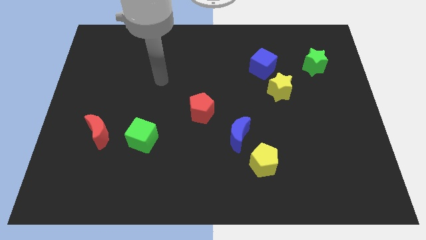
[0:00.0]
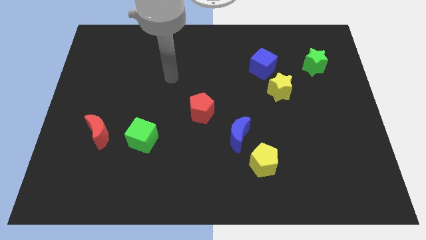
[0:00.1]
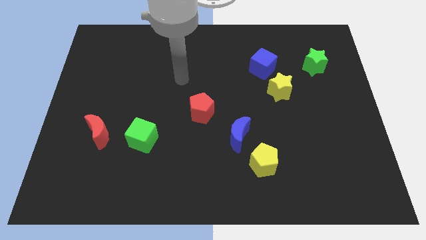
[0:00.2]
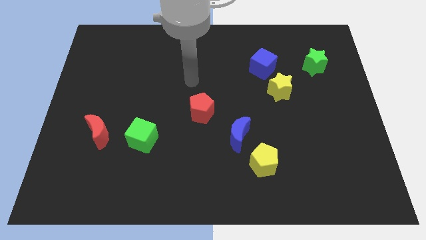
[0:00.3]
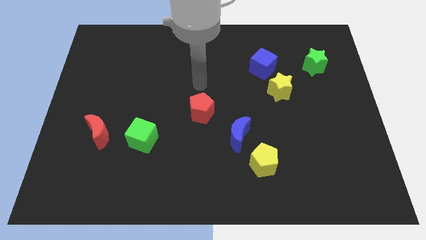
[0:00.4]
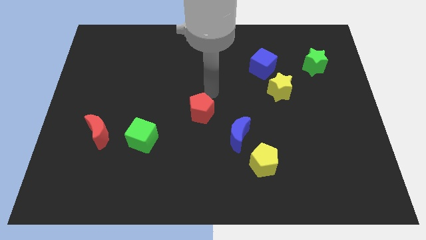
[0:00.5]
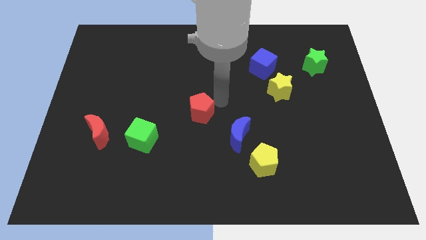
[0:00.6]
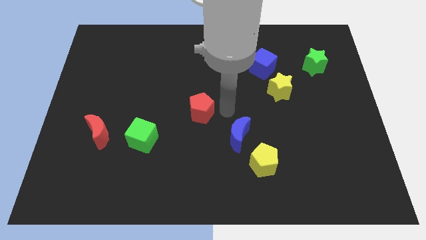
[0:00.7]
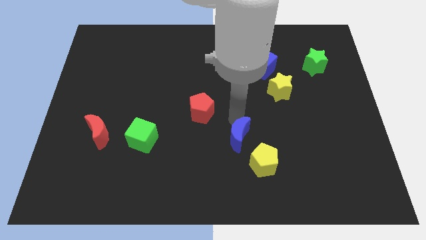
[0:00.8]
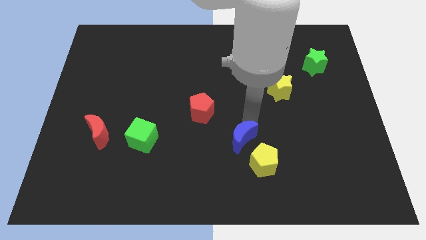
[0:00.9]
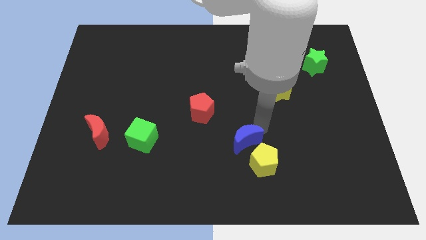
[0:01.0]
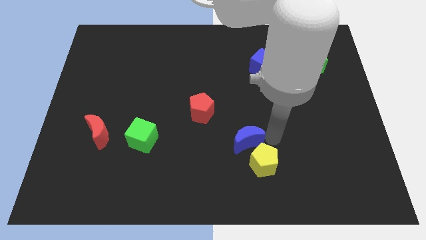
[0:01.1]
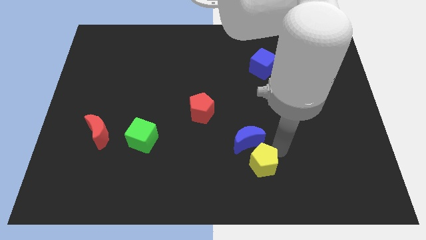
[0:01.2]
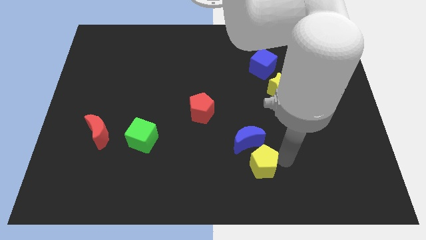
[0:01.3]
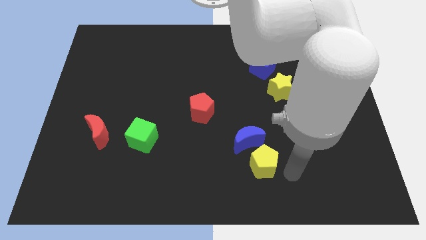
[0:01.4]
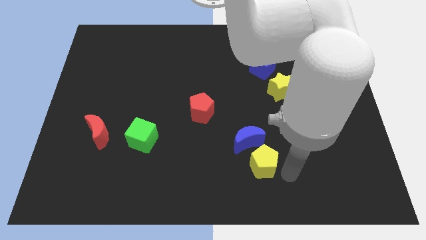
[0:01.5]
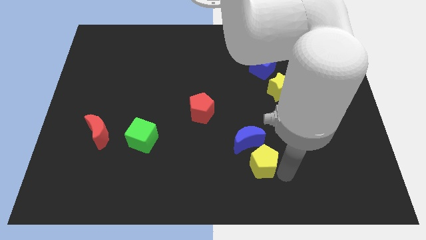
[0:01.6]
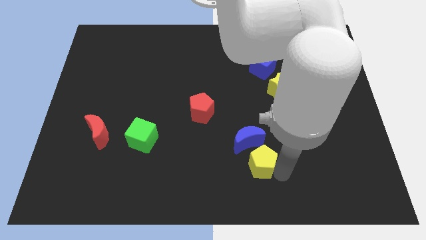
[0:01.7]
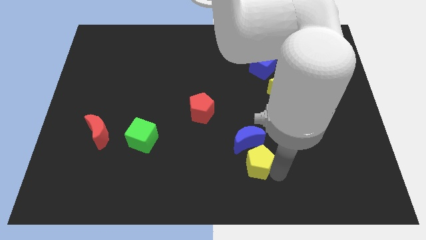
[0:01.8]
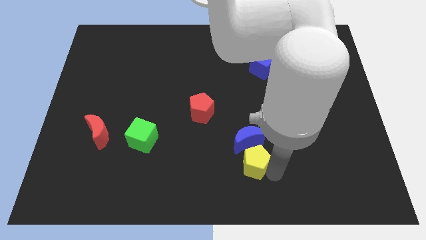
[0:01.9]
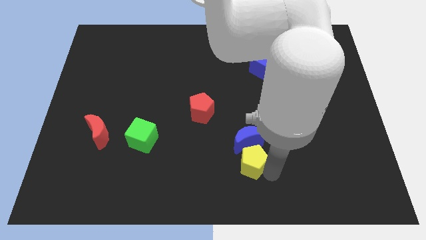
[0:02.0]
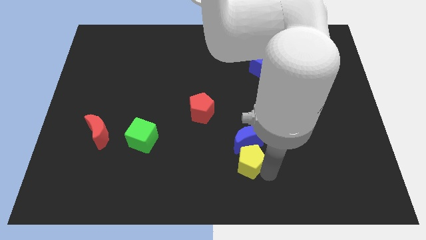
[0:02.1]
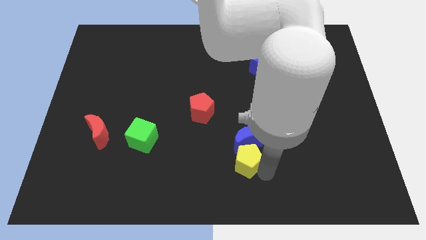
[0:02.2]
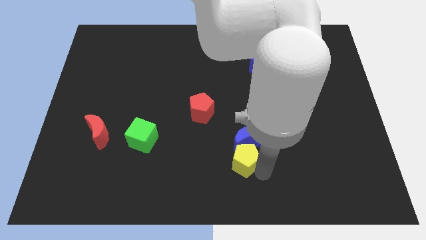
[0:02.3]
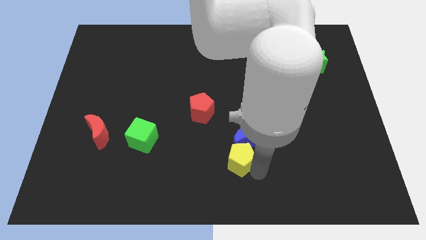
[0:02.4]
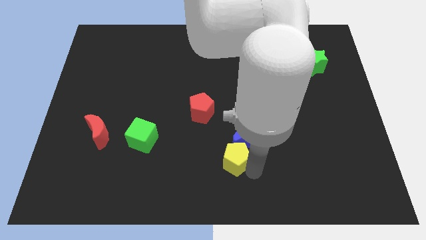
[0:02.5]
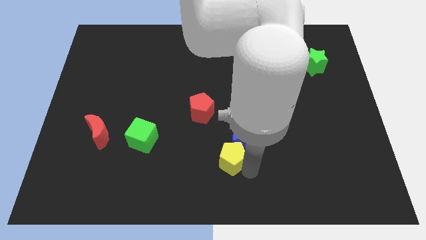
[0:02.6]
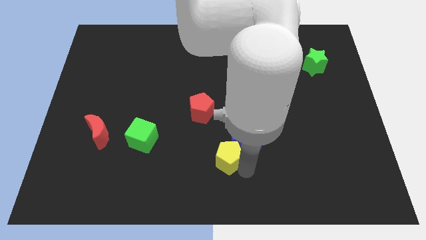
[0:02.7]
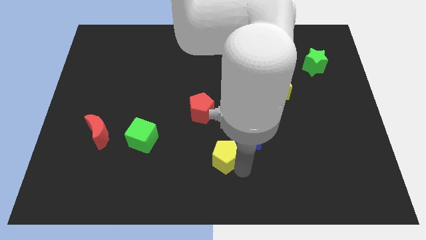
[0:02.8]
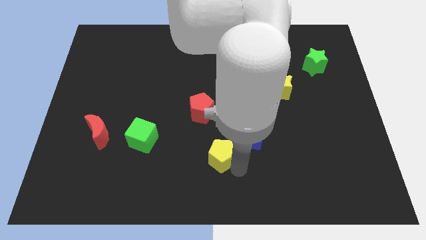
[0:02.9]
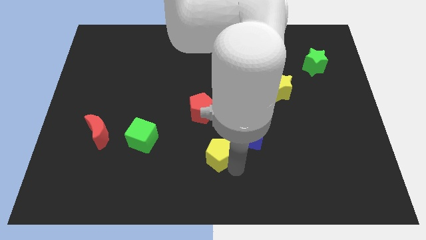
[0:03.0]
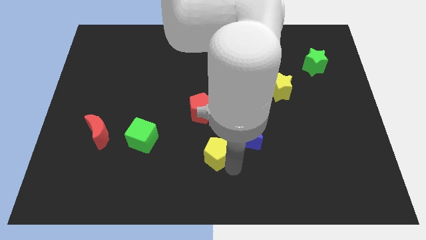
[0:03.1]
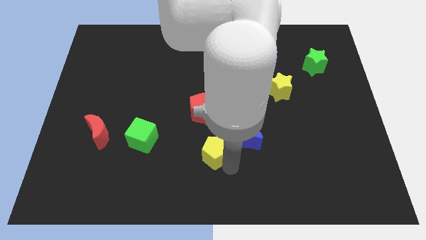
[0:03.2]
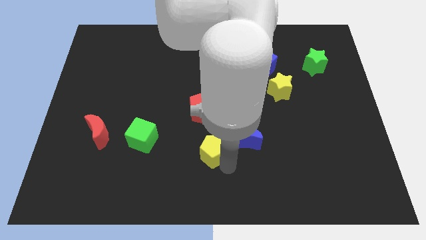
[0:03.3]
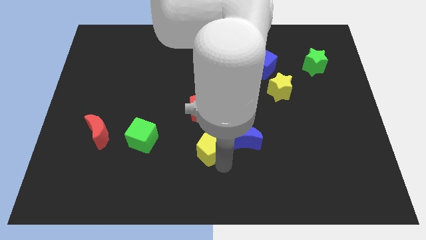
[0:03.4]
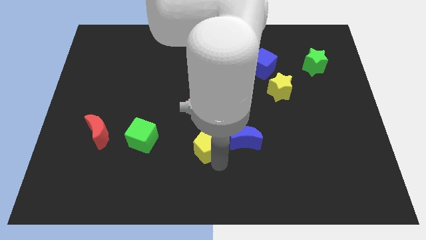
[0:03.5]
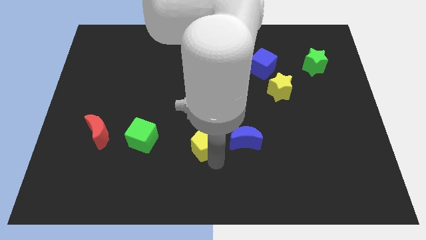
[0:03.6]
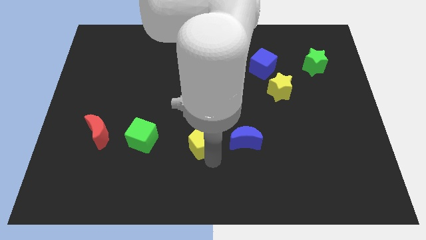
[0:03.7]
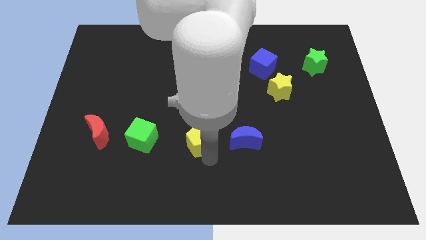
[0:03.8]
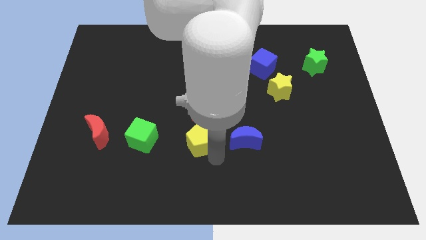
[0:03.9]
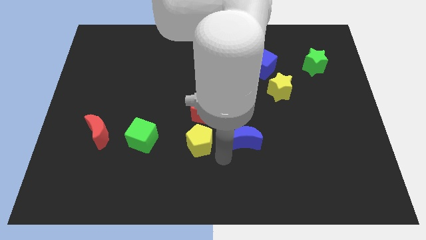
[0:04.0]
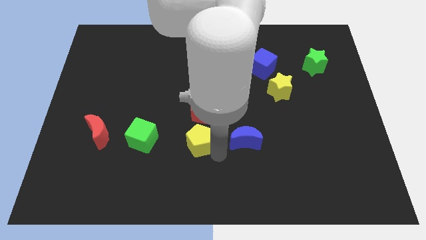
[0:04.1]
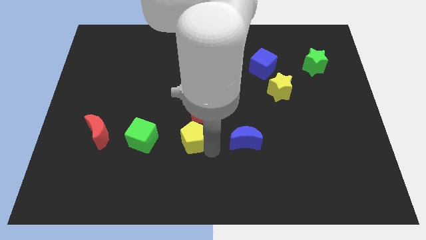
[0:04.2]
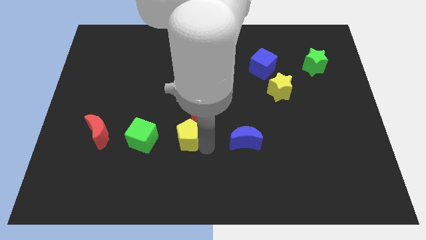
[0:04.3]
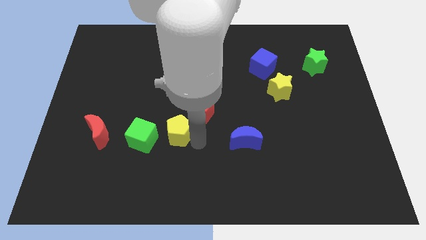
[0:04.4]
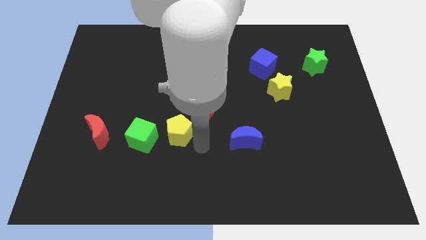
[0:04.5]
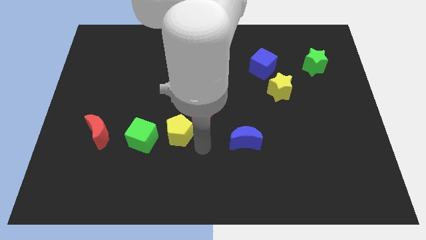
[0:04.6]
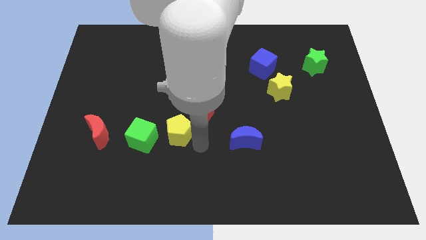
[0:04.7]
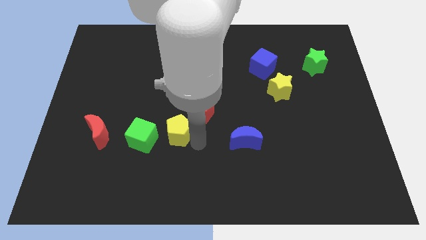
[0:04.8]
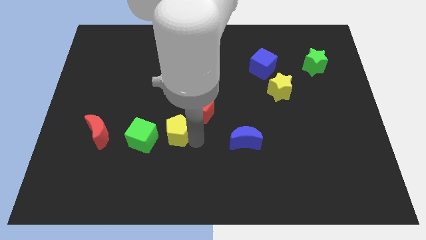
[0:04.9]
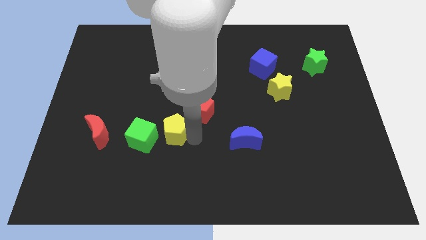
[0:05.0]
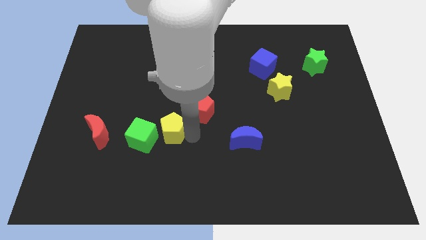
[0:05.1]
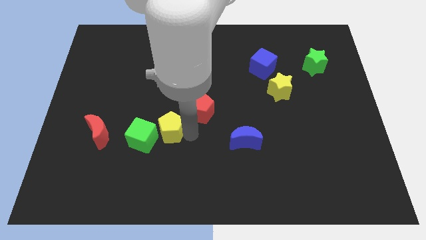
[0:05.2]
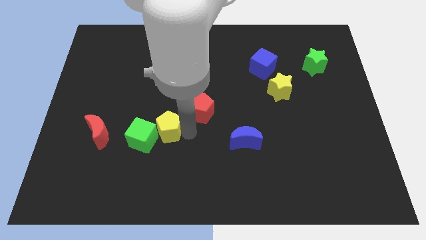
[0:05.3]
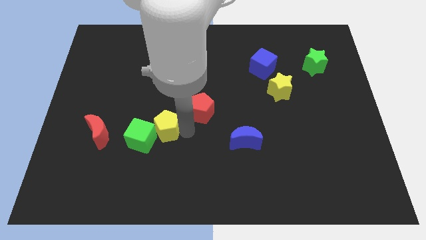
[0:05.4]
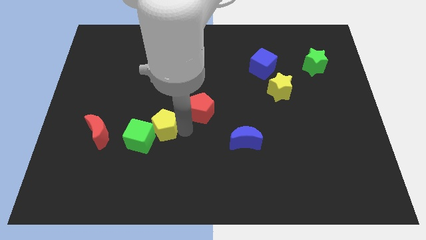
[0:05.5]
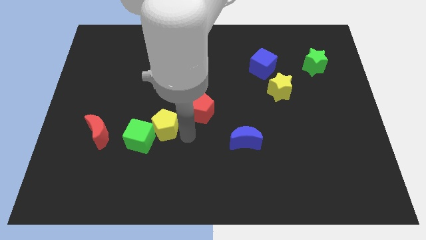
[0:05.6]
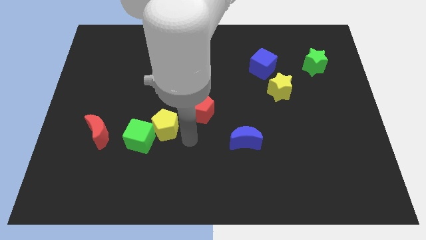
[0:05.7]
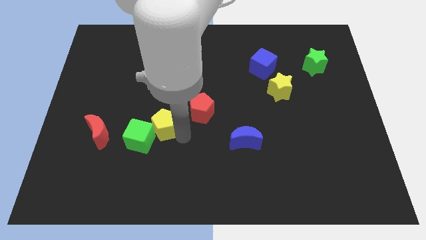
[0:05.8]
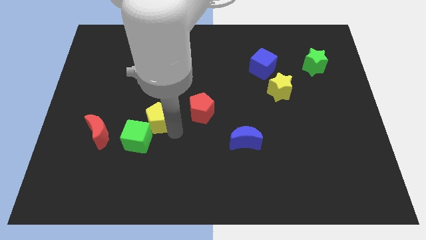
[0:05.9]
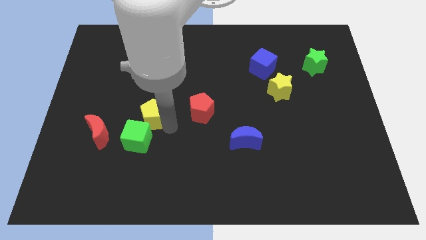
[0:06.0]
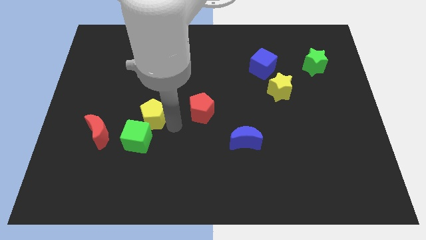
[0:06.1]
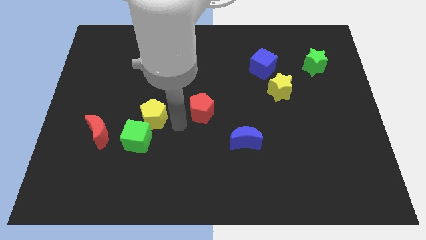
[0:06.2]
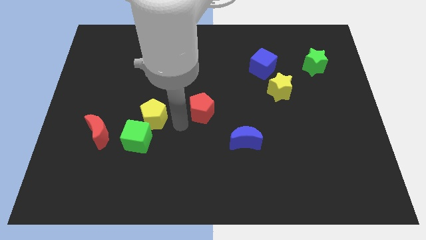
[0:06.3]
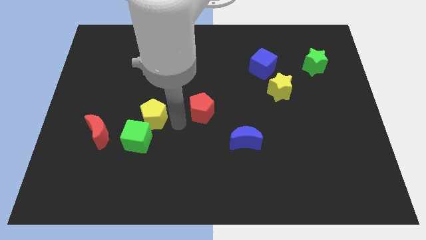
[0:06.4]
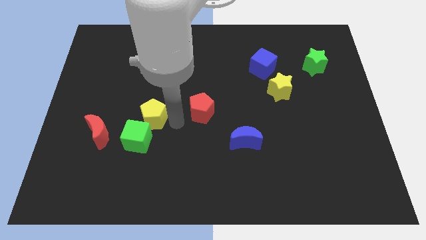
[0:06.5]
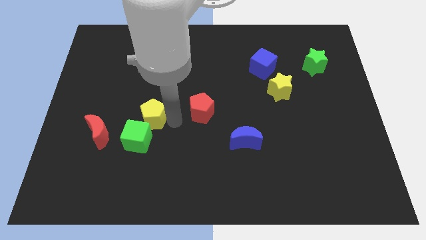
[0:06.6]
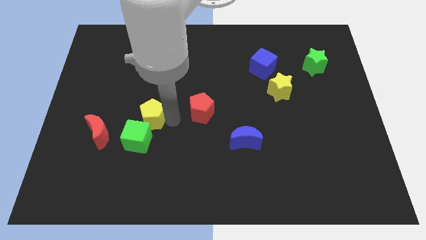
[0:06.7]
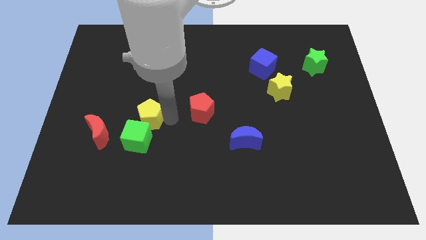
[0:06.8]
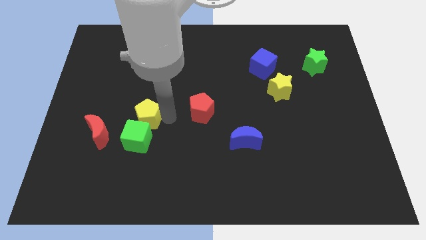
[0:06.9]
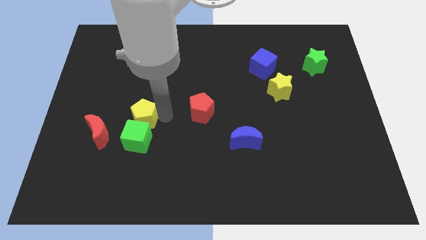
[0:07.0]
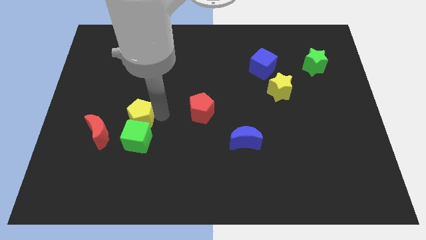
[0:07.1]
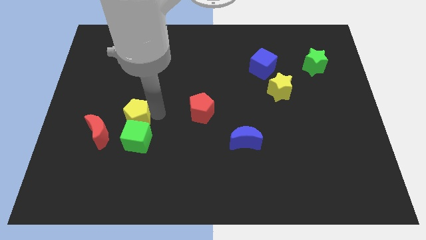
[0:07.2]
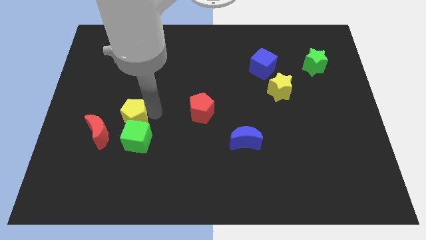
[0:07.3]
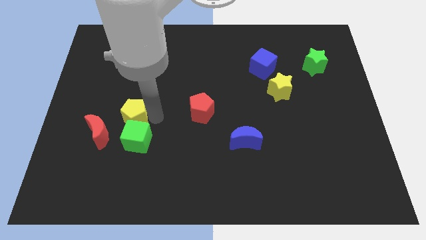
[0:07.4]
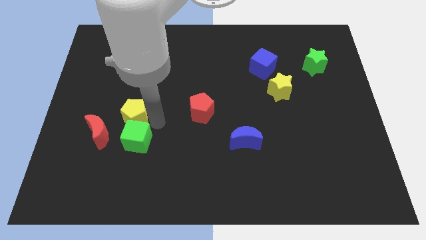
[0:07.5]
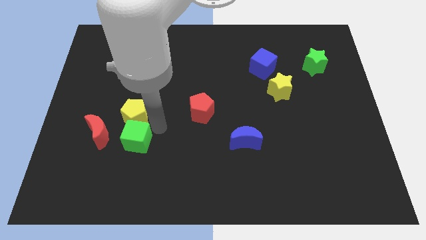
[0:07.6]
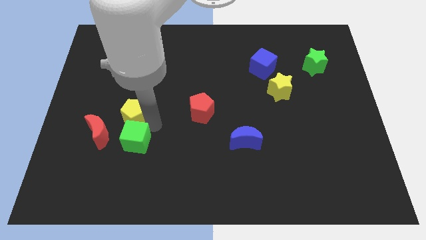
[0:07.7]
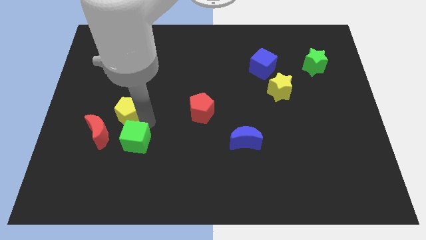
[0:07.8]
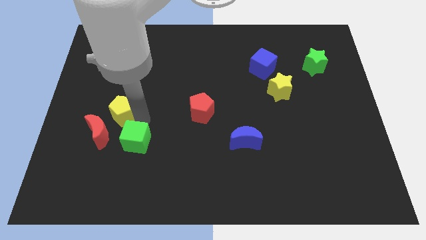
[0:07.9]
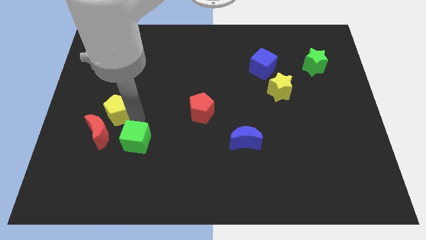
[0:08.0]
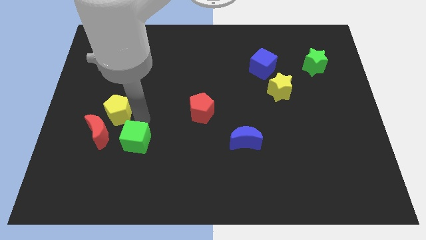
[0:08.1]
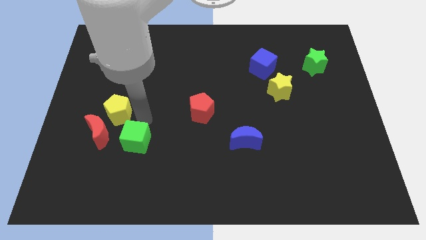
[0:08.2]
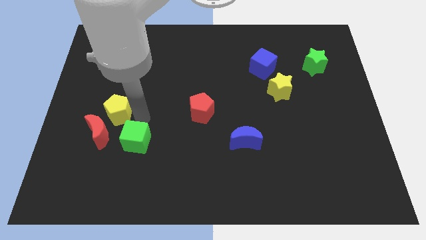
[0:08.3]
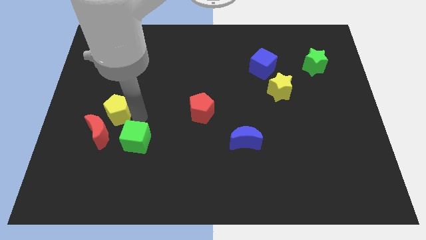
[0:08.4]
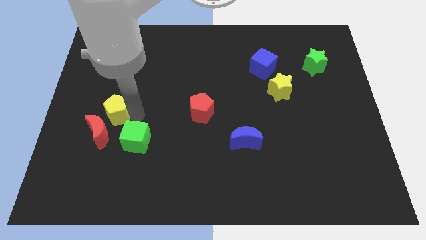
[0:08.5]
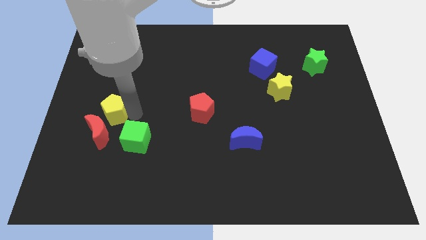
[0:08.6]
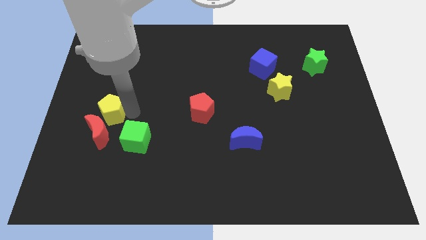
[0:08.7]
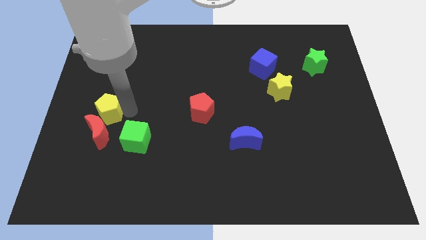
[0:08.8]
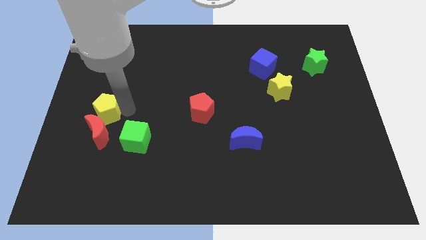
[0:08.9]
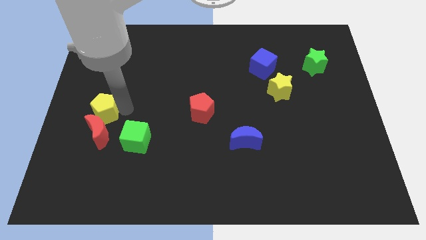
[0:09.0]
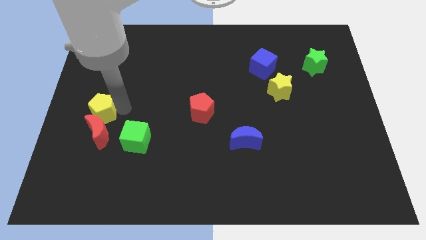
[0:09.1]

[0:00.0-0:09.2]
slide the yellow pentagon to the left side
